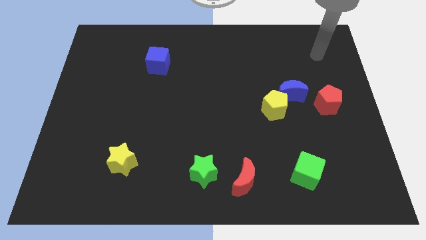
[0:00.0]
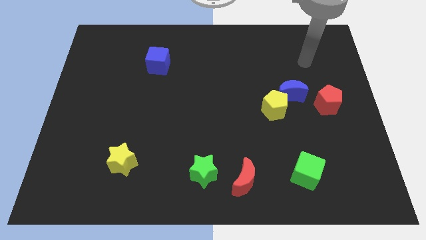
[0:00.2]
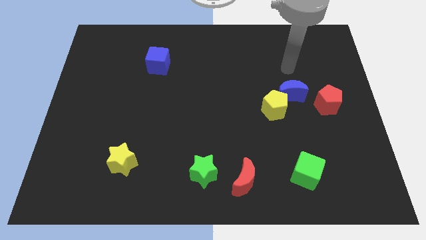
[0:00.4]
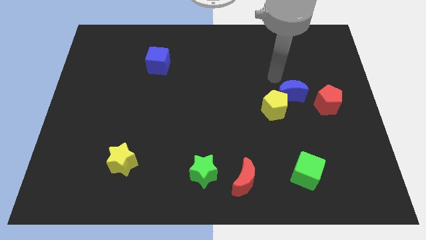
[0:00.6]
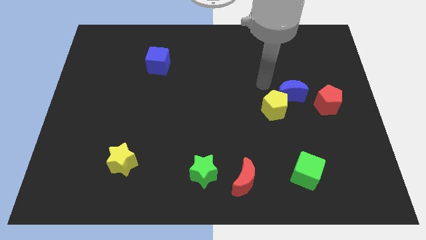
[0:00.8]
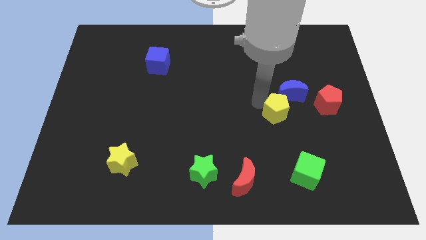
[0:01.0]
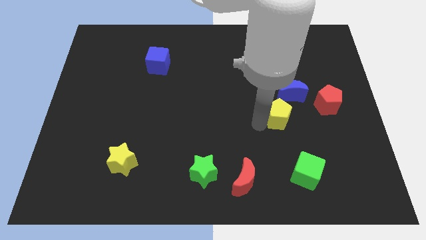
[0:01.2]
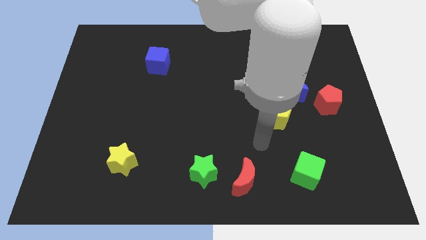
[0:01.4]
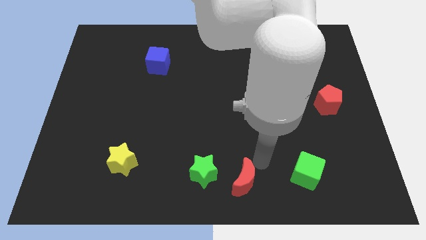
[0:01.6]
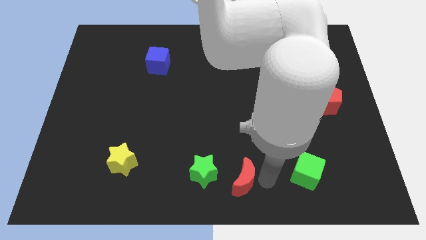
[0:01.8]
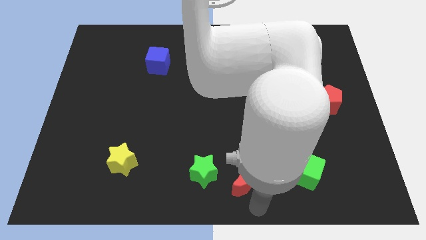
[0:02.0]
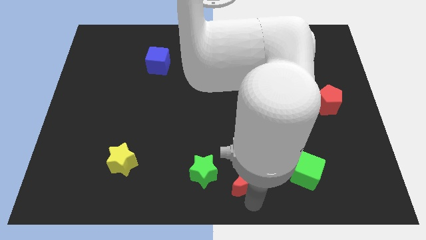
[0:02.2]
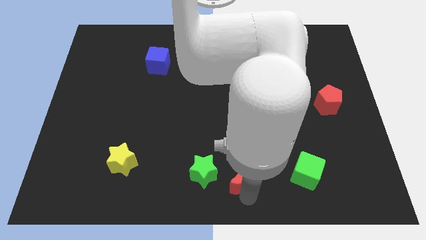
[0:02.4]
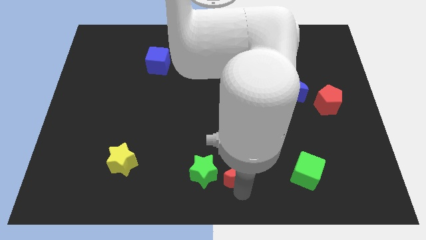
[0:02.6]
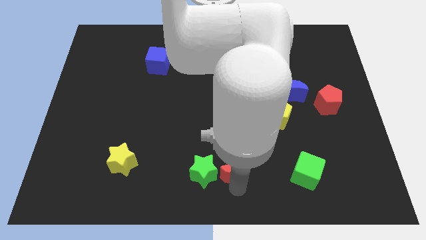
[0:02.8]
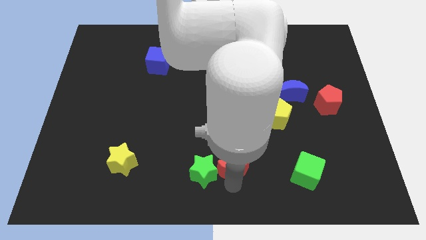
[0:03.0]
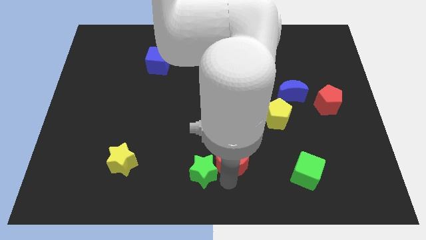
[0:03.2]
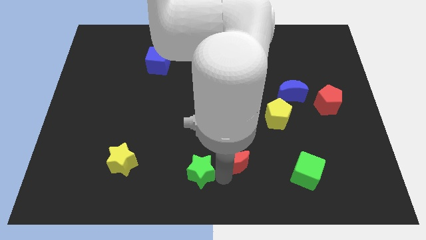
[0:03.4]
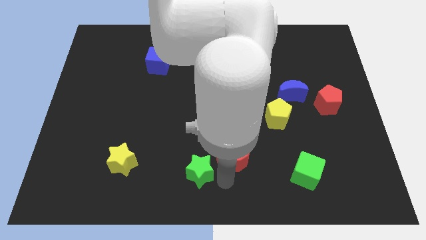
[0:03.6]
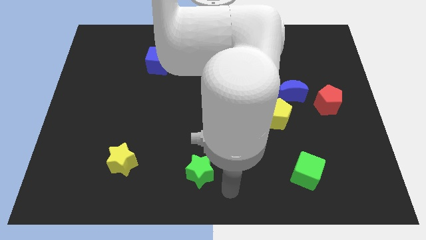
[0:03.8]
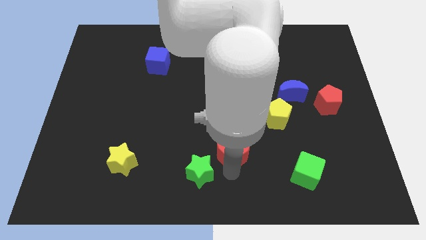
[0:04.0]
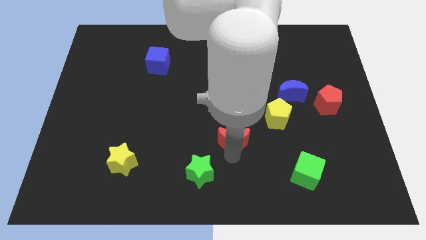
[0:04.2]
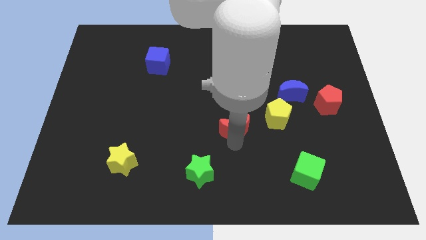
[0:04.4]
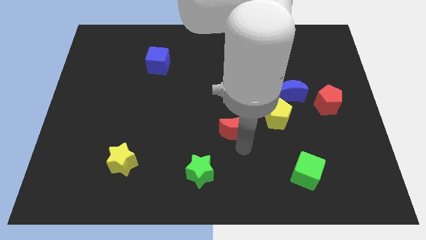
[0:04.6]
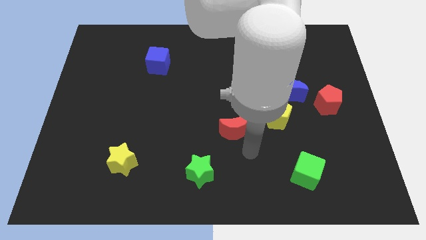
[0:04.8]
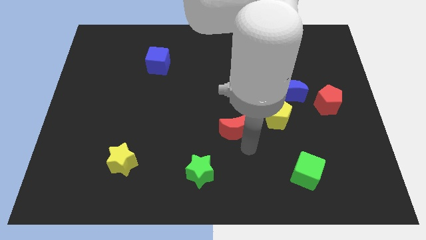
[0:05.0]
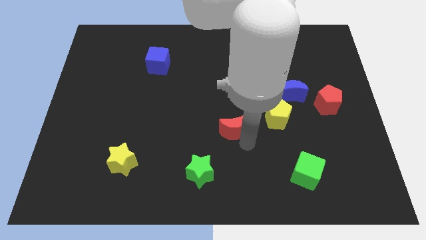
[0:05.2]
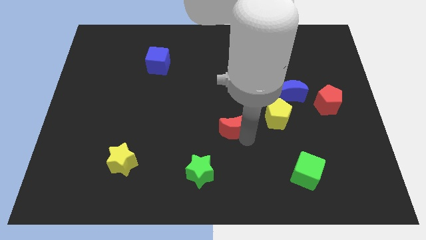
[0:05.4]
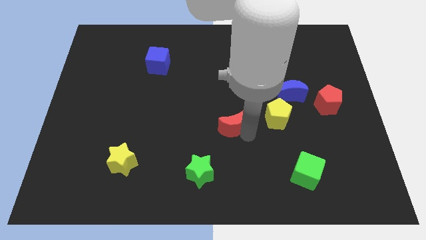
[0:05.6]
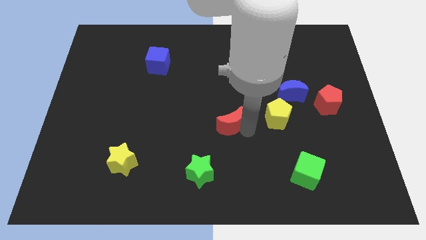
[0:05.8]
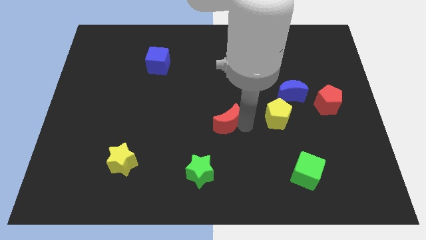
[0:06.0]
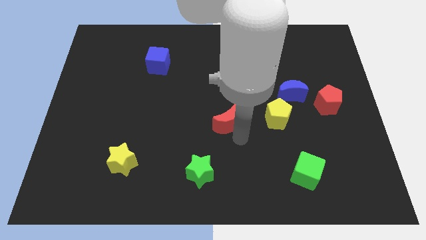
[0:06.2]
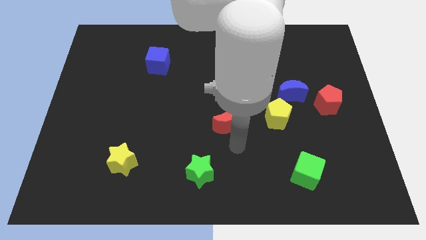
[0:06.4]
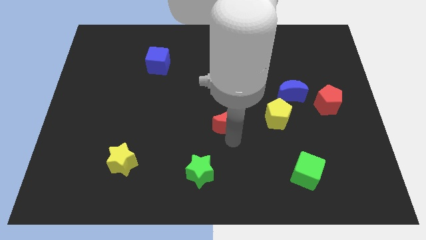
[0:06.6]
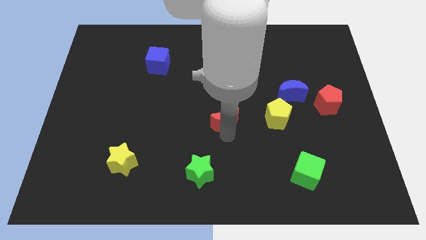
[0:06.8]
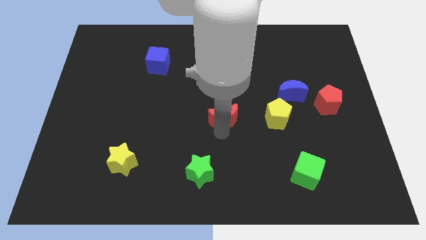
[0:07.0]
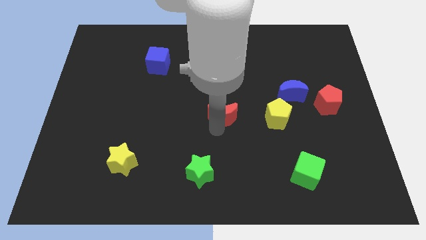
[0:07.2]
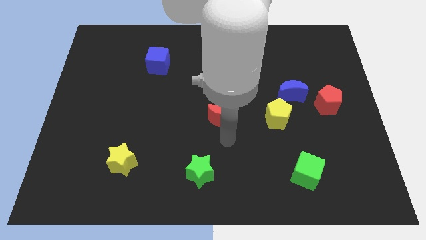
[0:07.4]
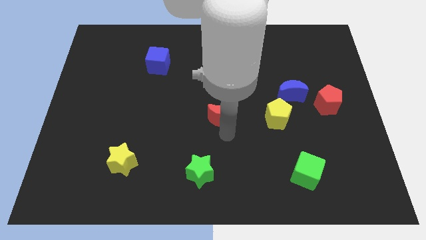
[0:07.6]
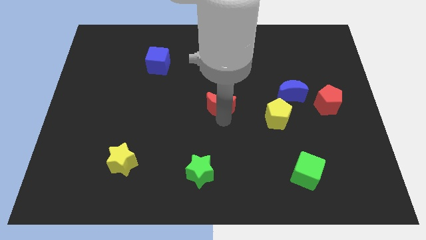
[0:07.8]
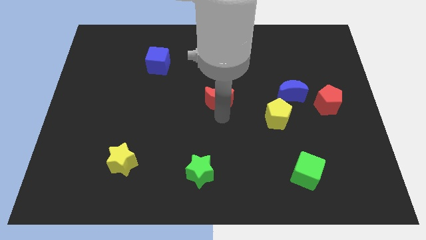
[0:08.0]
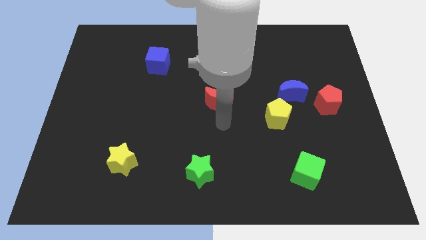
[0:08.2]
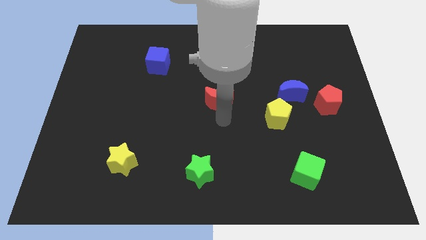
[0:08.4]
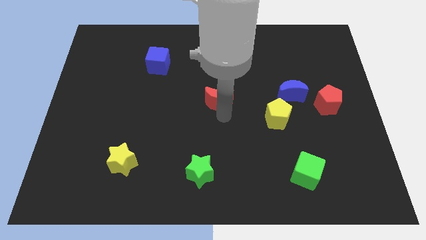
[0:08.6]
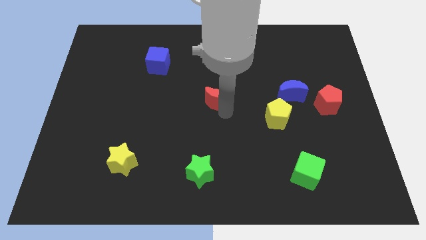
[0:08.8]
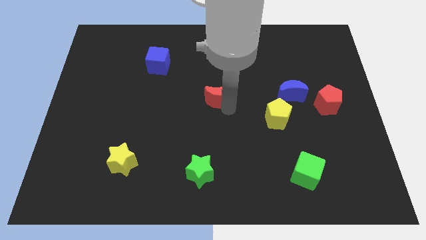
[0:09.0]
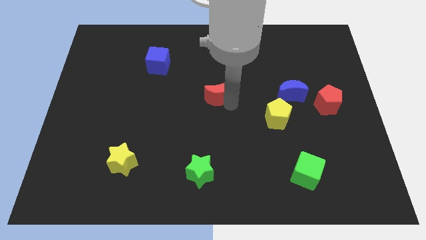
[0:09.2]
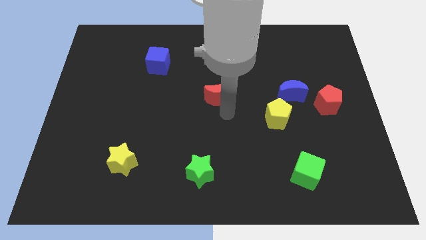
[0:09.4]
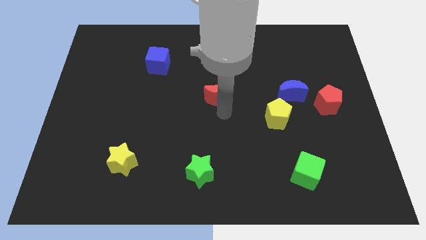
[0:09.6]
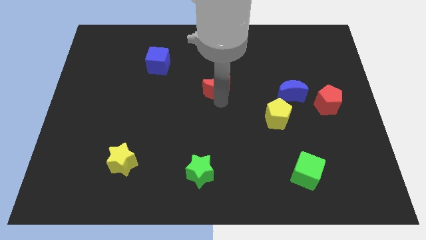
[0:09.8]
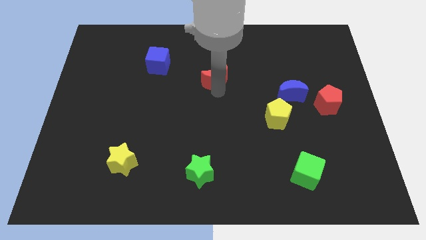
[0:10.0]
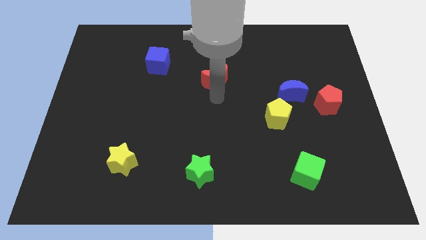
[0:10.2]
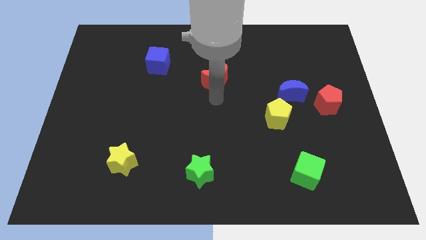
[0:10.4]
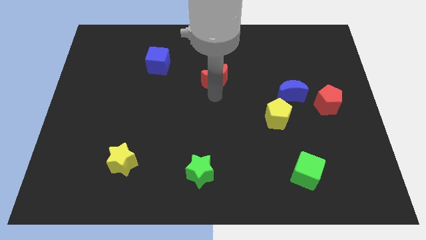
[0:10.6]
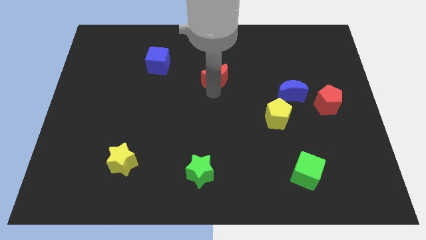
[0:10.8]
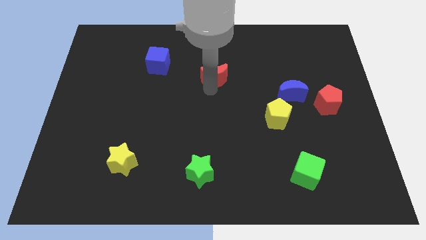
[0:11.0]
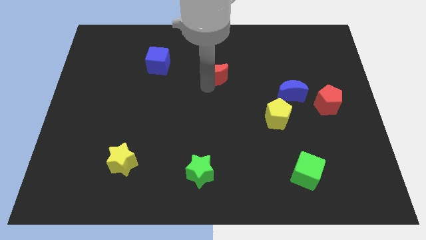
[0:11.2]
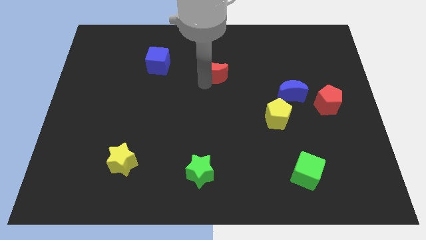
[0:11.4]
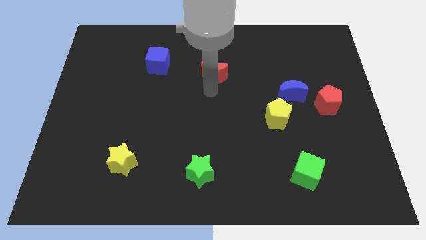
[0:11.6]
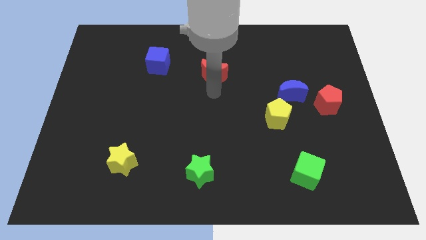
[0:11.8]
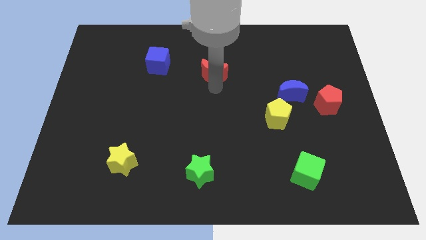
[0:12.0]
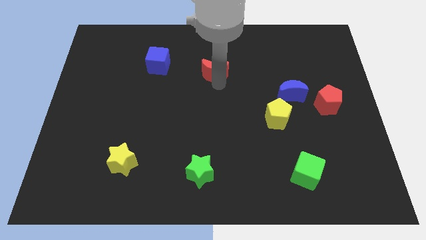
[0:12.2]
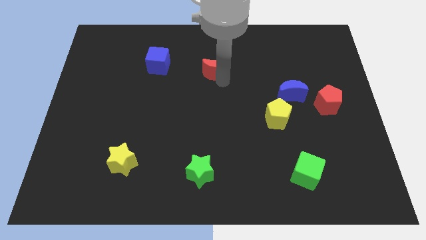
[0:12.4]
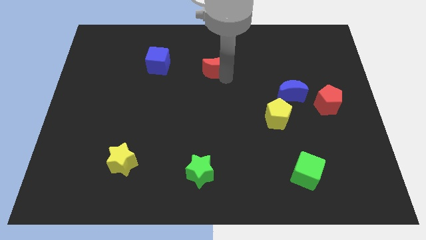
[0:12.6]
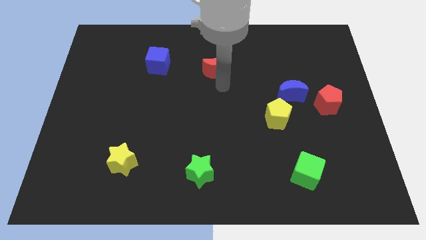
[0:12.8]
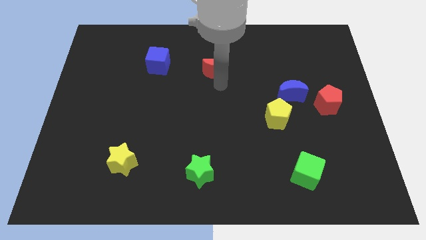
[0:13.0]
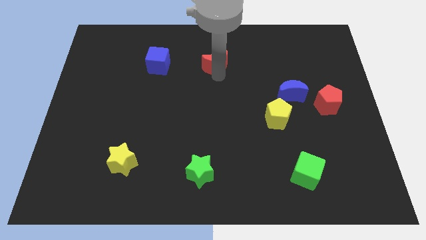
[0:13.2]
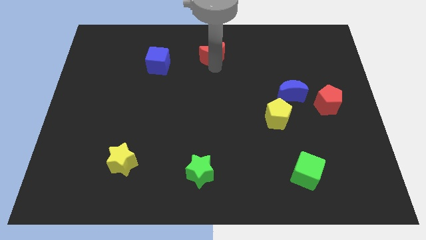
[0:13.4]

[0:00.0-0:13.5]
push the red moon to the towards your base
